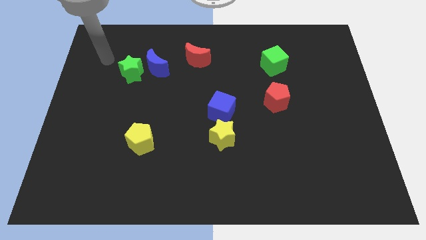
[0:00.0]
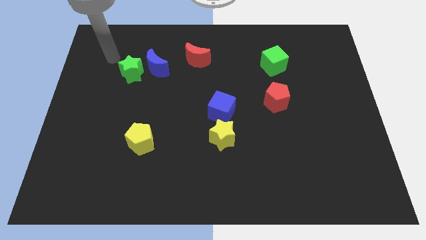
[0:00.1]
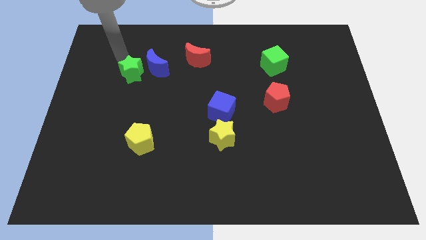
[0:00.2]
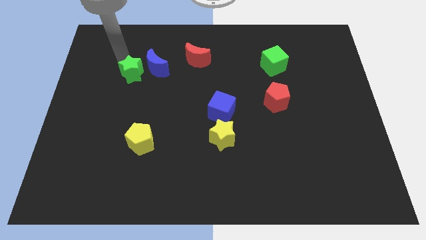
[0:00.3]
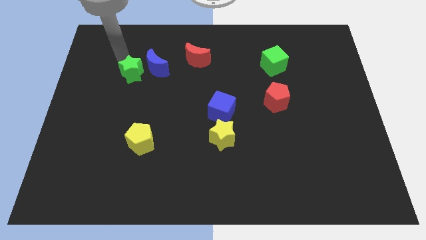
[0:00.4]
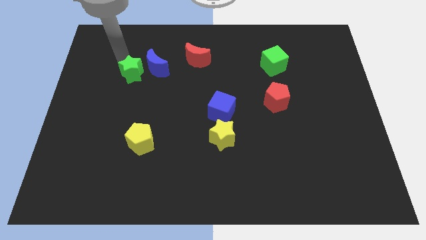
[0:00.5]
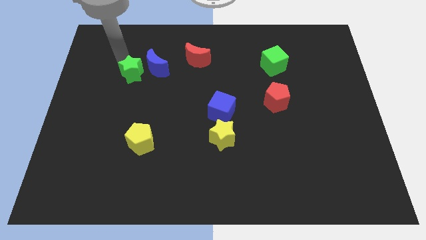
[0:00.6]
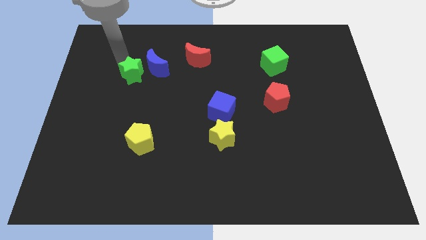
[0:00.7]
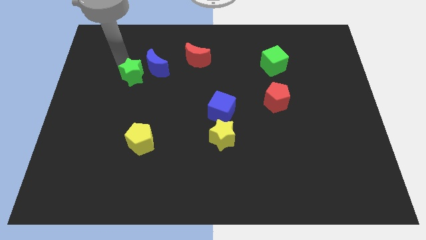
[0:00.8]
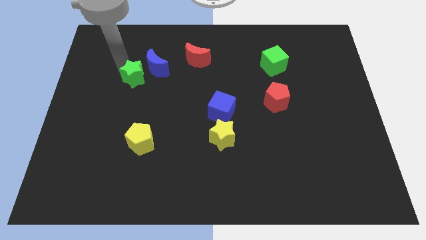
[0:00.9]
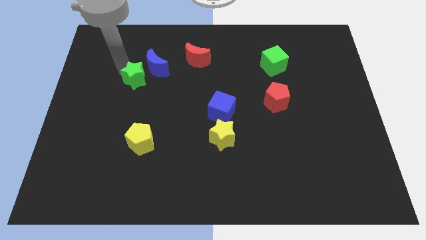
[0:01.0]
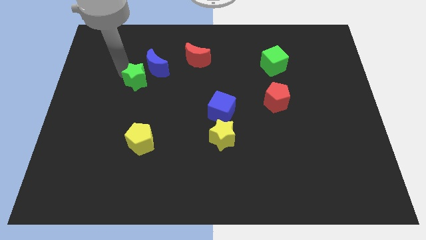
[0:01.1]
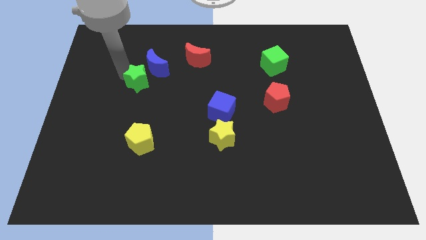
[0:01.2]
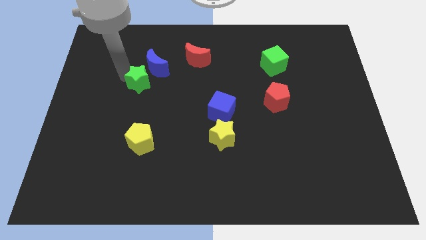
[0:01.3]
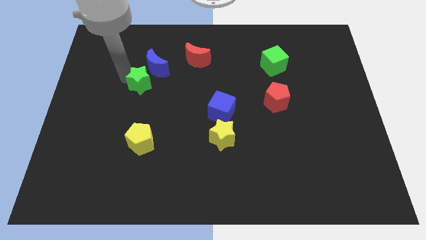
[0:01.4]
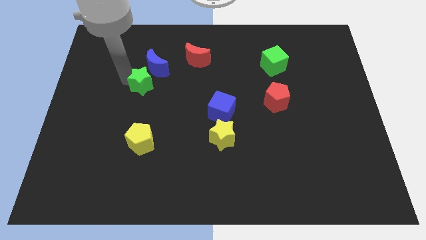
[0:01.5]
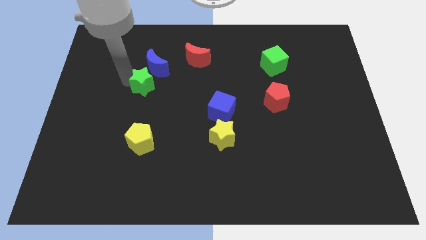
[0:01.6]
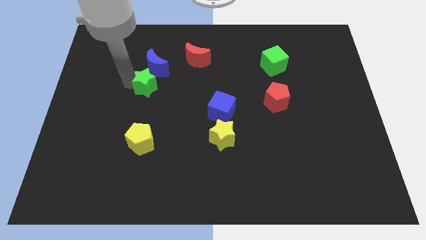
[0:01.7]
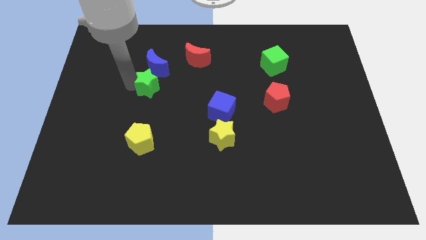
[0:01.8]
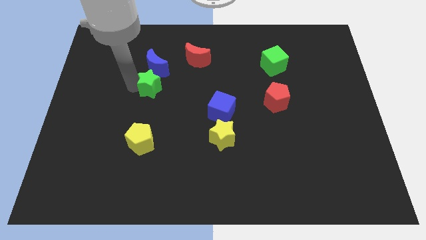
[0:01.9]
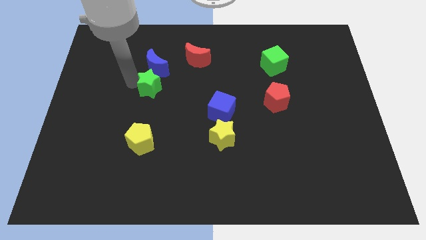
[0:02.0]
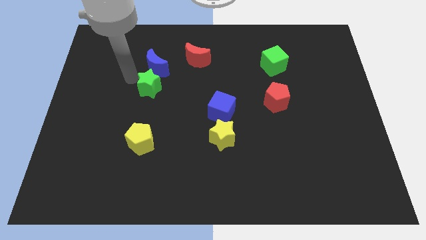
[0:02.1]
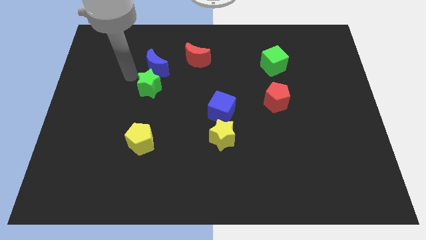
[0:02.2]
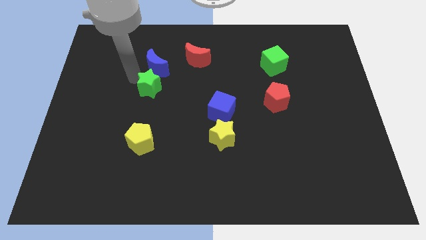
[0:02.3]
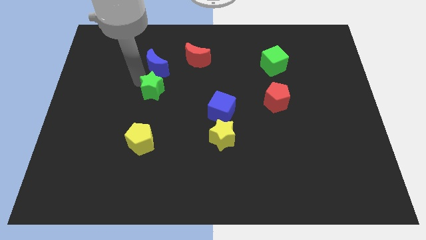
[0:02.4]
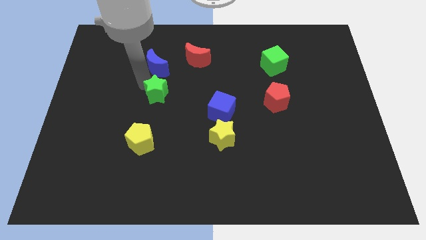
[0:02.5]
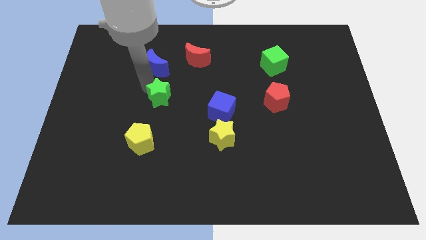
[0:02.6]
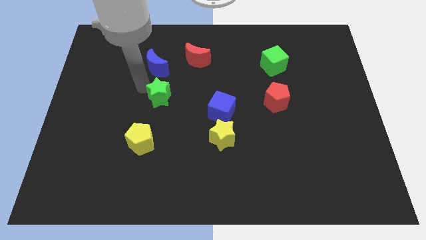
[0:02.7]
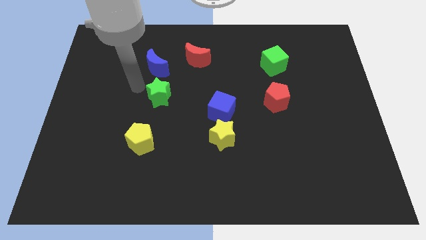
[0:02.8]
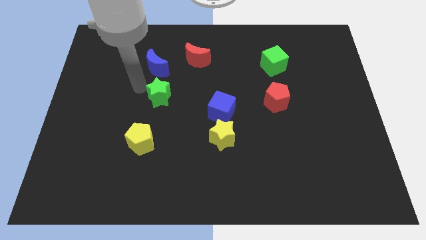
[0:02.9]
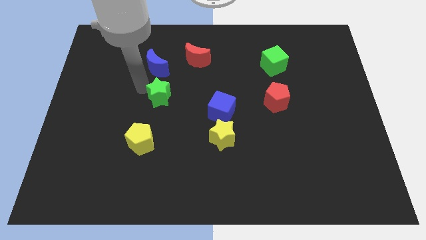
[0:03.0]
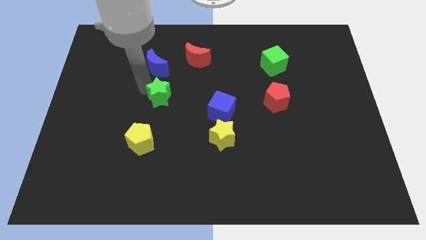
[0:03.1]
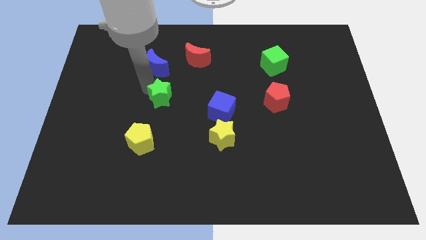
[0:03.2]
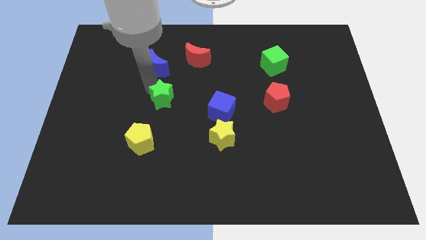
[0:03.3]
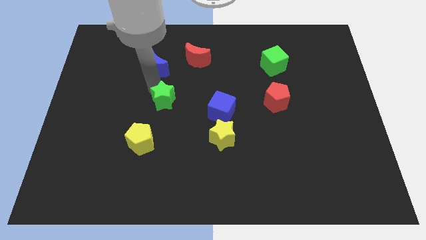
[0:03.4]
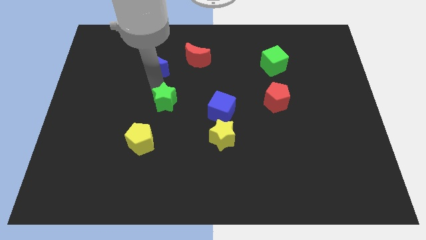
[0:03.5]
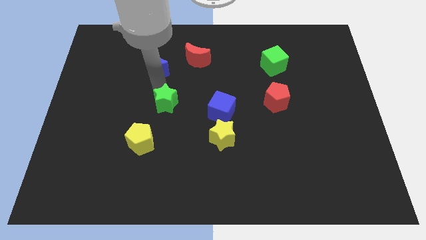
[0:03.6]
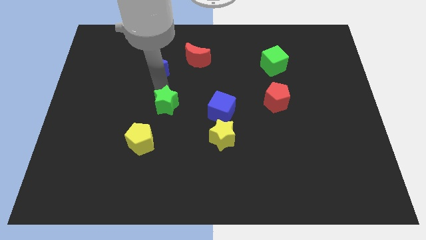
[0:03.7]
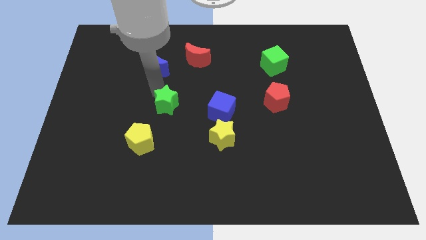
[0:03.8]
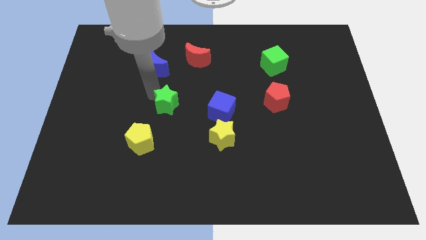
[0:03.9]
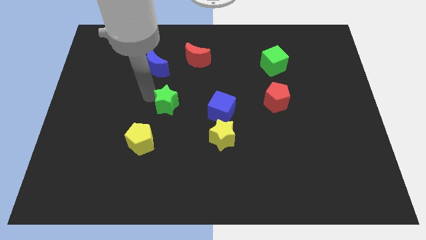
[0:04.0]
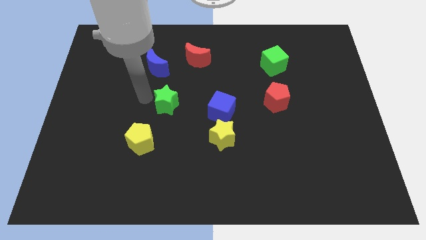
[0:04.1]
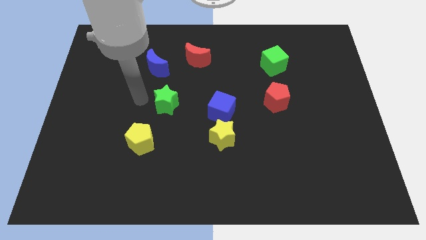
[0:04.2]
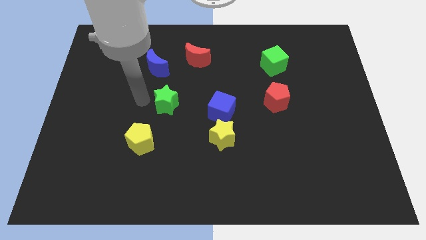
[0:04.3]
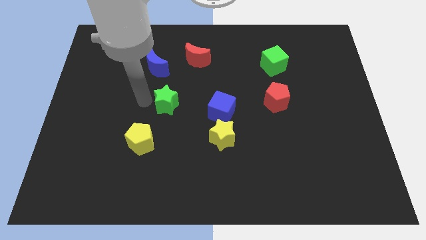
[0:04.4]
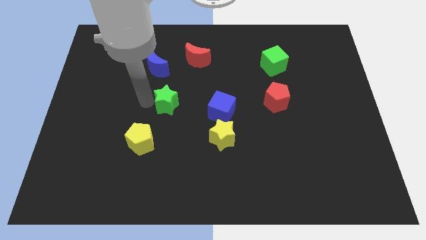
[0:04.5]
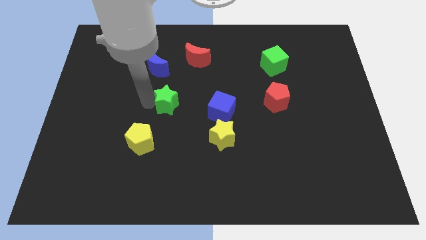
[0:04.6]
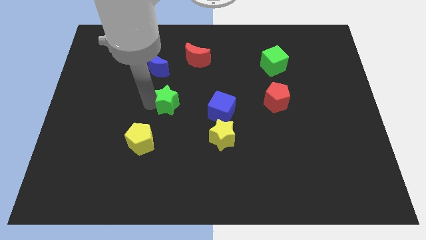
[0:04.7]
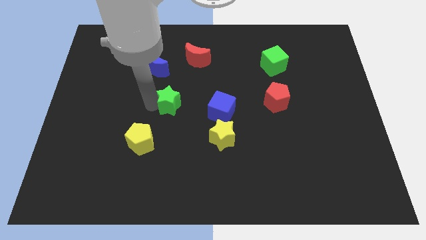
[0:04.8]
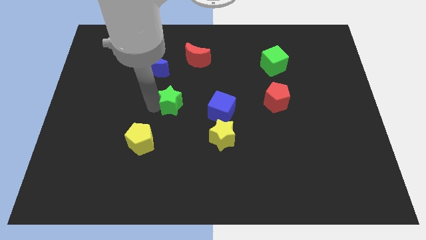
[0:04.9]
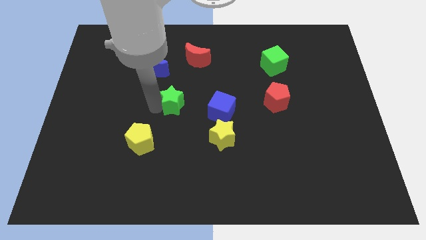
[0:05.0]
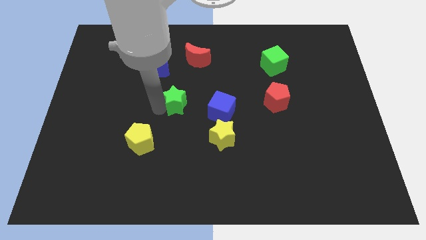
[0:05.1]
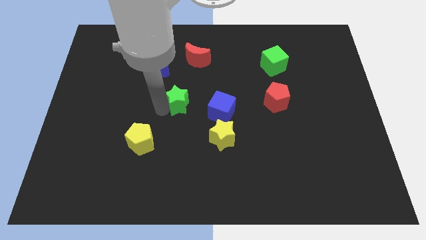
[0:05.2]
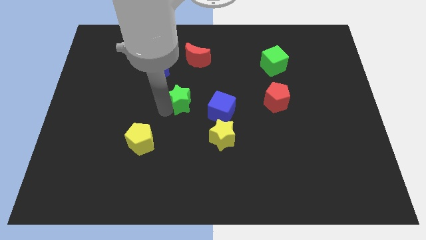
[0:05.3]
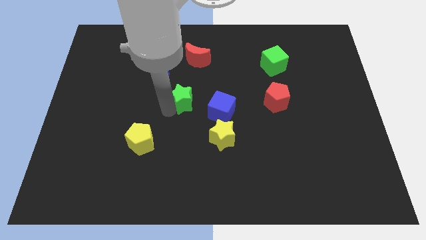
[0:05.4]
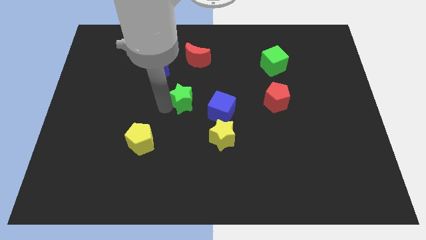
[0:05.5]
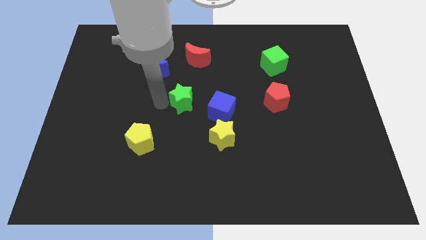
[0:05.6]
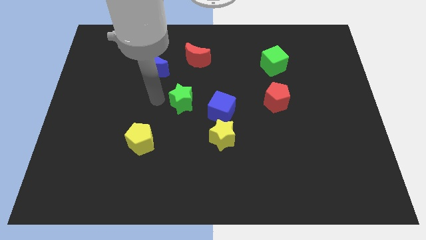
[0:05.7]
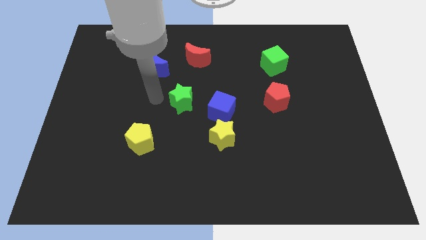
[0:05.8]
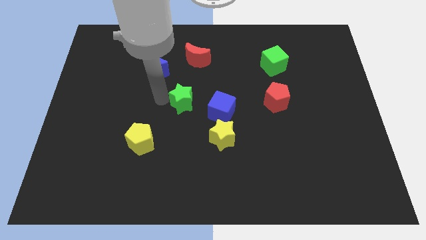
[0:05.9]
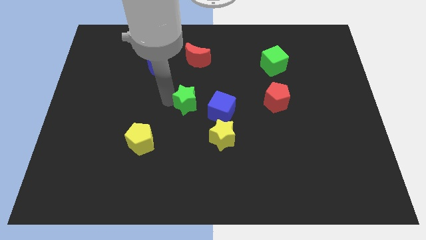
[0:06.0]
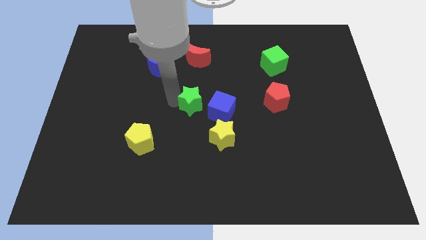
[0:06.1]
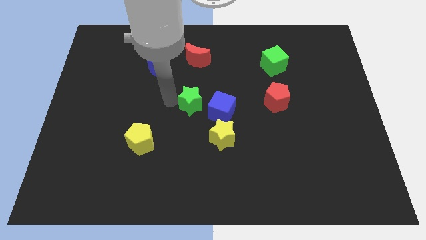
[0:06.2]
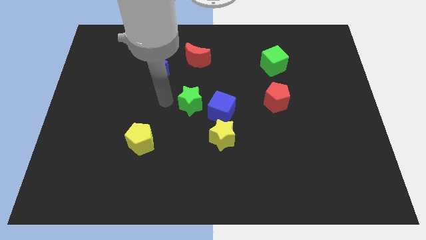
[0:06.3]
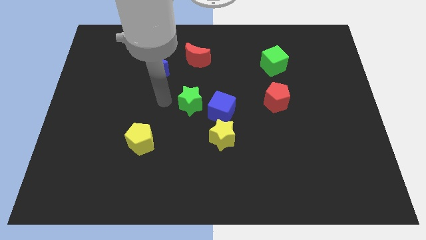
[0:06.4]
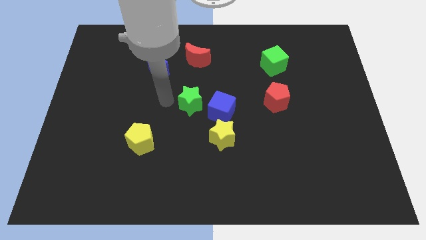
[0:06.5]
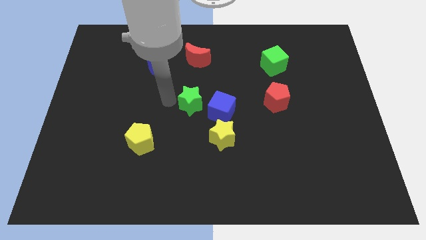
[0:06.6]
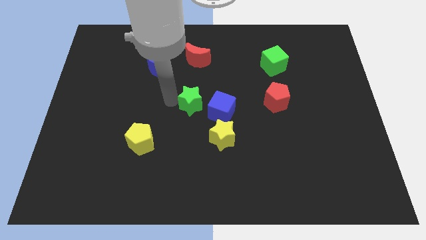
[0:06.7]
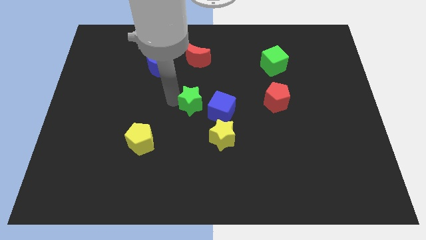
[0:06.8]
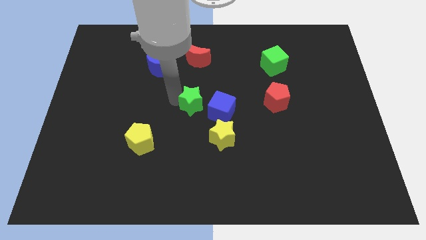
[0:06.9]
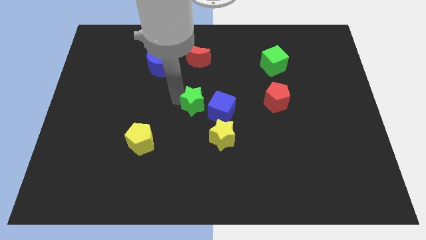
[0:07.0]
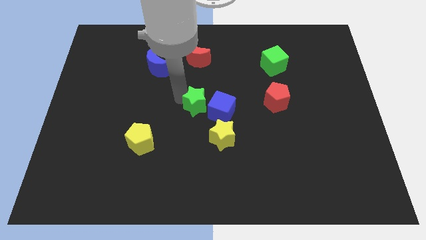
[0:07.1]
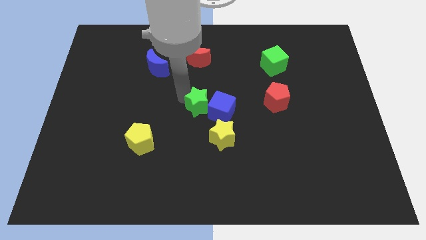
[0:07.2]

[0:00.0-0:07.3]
slide the green star towards the blue cube
